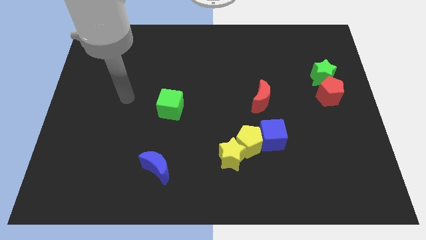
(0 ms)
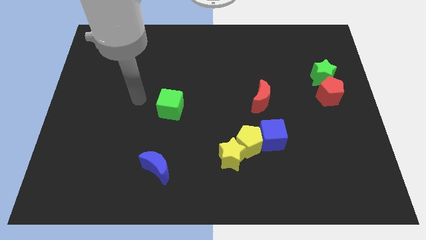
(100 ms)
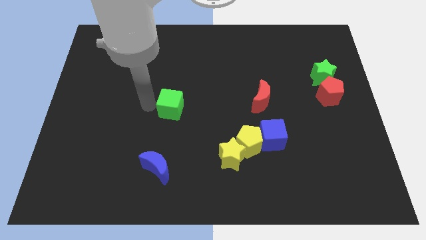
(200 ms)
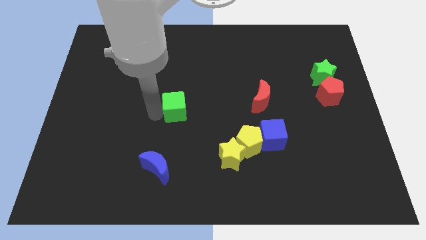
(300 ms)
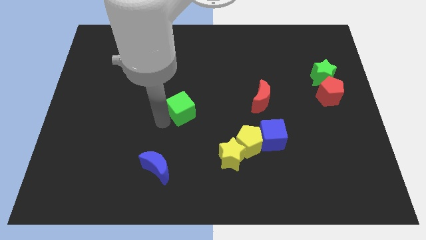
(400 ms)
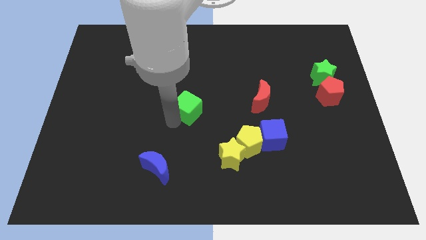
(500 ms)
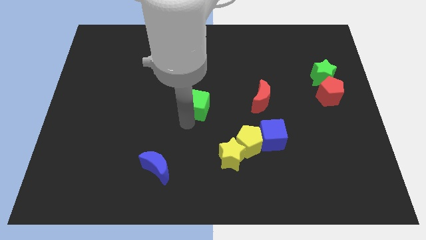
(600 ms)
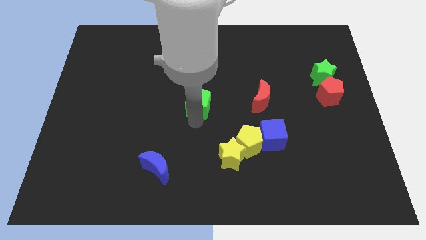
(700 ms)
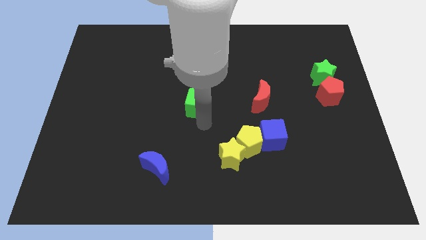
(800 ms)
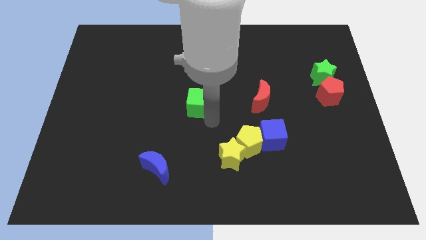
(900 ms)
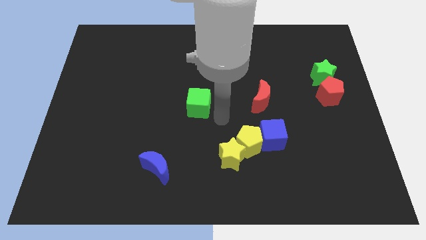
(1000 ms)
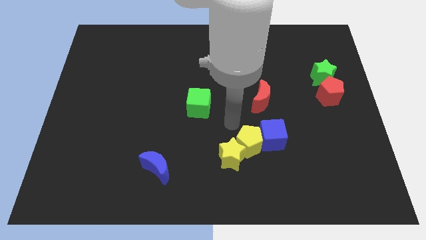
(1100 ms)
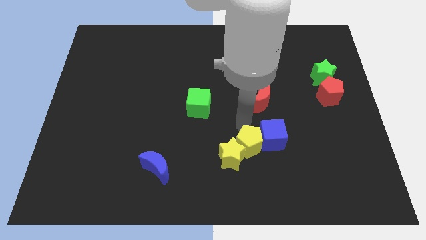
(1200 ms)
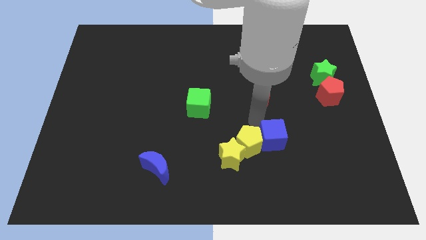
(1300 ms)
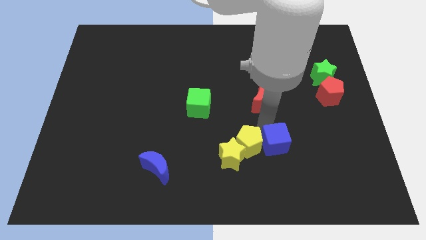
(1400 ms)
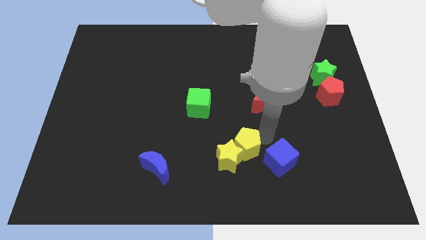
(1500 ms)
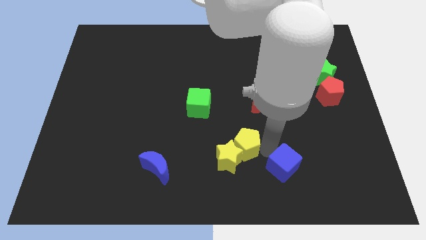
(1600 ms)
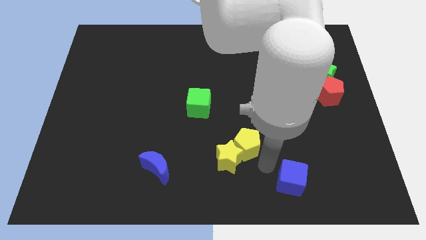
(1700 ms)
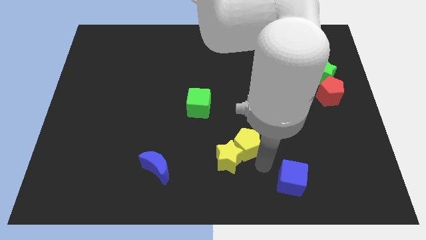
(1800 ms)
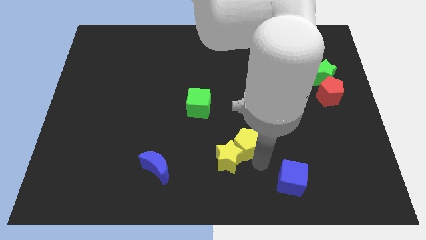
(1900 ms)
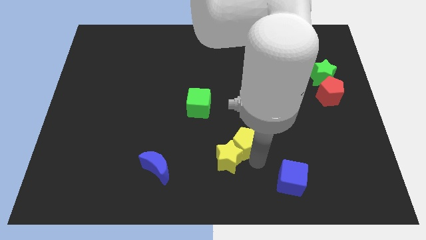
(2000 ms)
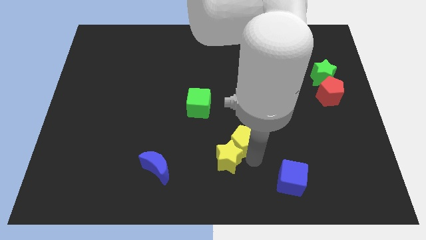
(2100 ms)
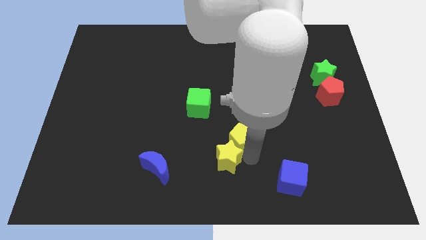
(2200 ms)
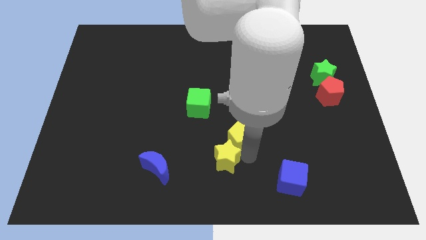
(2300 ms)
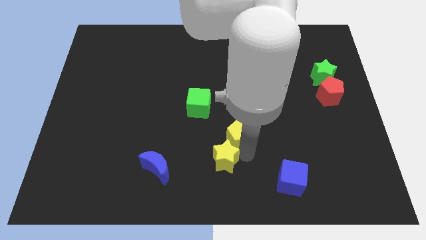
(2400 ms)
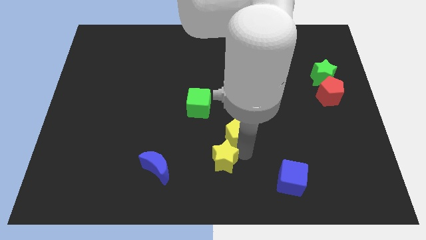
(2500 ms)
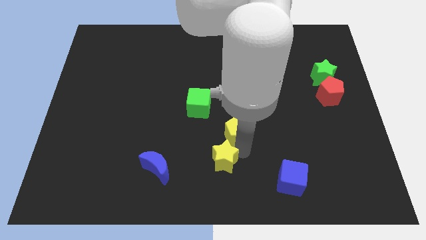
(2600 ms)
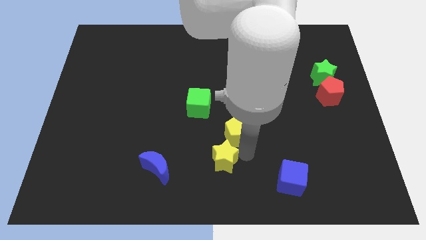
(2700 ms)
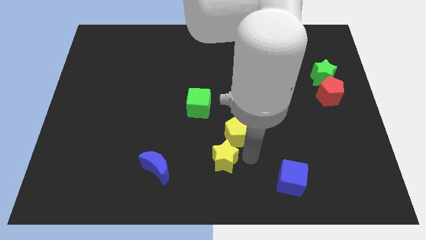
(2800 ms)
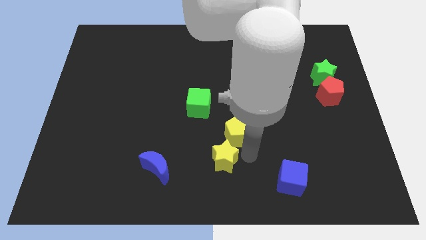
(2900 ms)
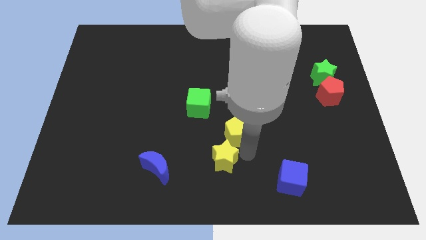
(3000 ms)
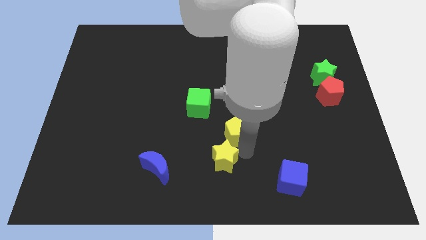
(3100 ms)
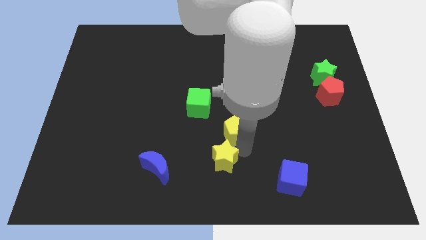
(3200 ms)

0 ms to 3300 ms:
move the yellow pentagon away from the yellow star and blue cube

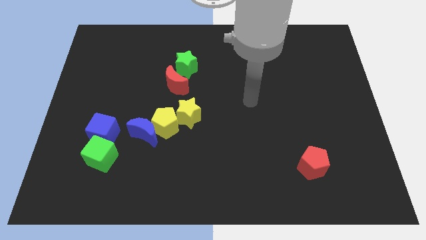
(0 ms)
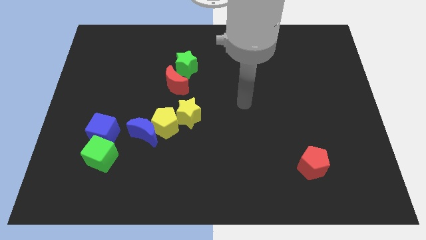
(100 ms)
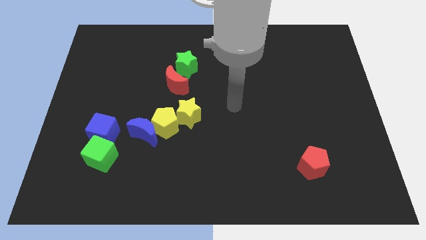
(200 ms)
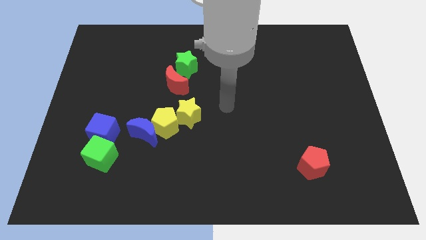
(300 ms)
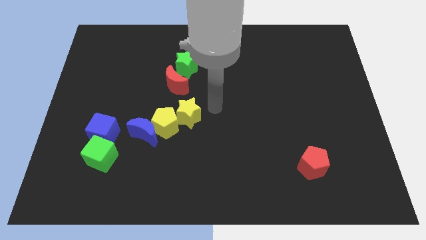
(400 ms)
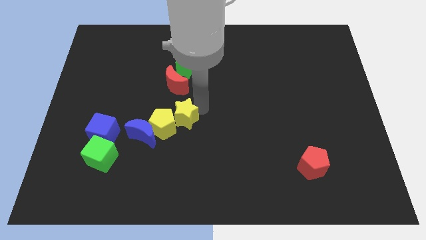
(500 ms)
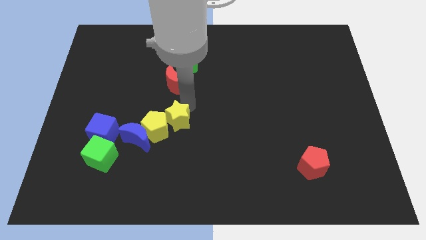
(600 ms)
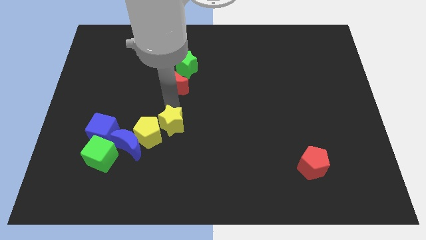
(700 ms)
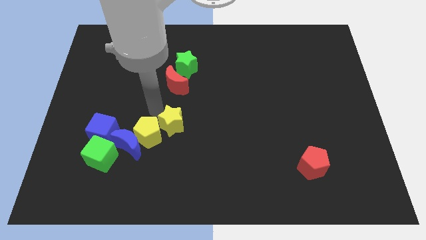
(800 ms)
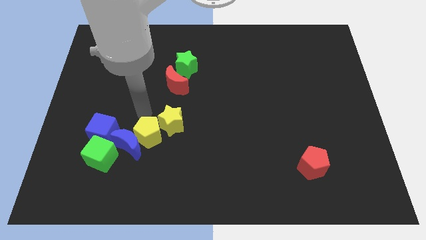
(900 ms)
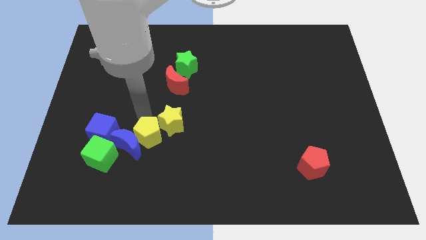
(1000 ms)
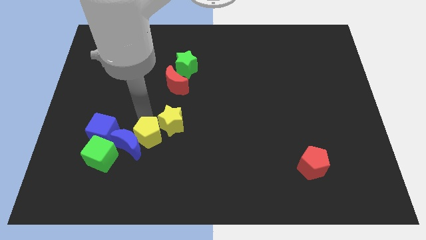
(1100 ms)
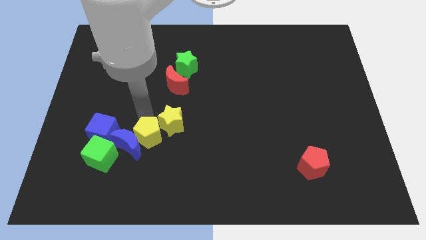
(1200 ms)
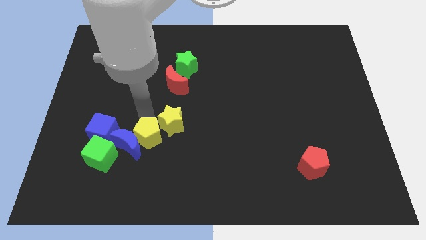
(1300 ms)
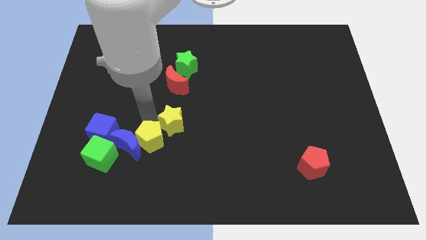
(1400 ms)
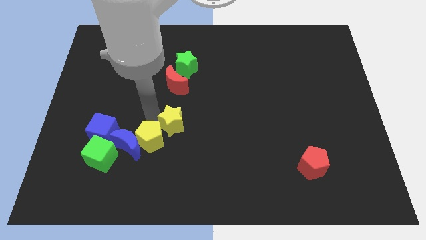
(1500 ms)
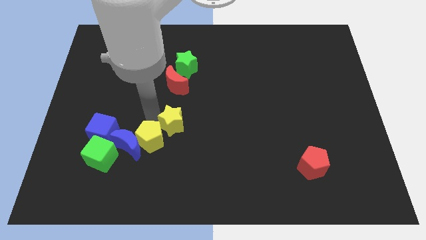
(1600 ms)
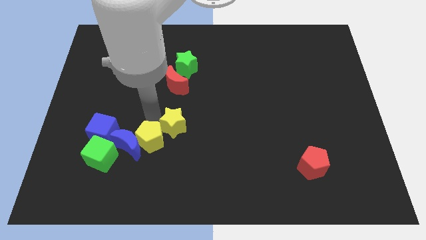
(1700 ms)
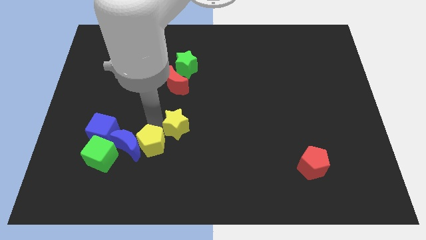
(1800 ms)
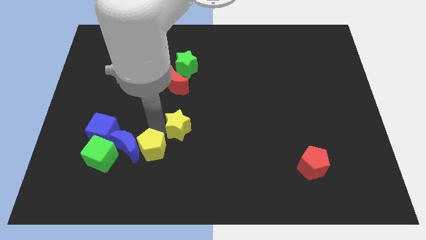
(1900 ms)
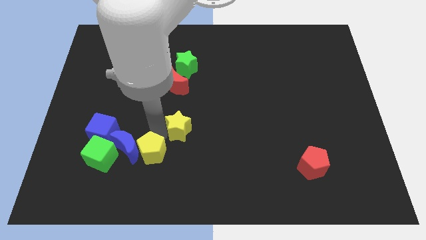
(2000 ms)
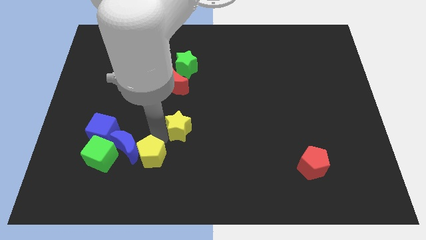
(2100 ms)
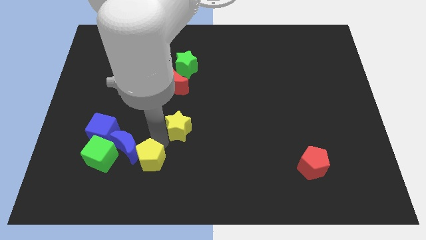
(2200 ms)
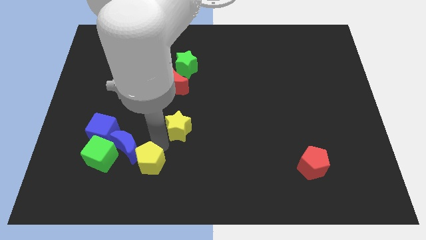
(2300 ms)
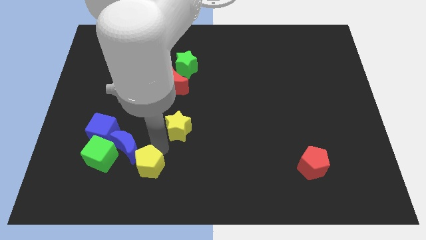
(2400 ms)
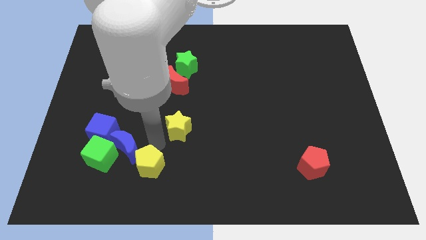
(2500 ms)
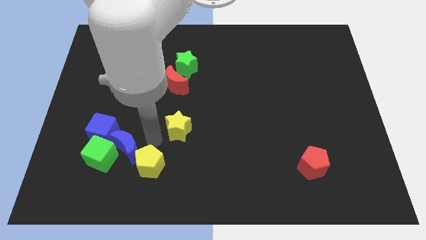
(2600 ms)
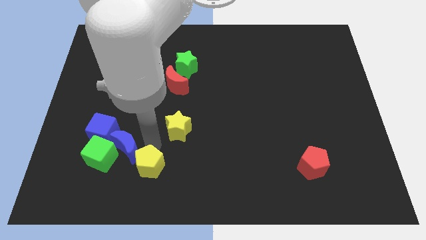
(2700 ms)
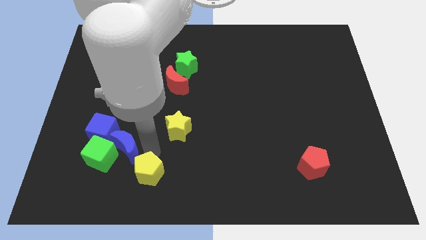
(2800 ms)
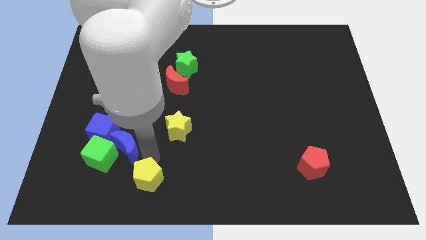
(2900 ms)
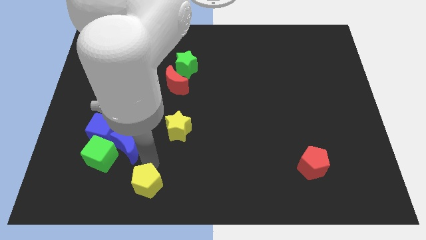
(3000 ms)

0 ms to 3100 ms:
pull the yellow pentagon apart from the blue moon and yellow star

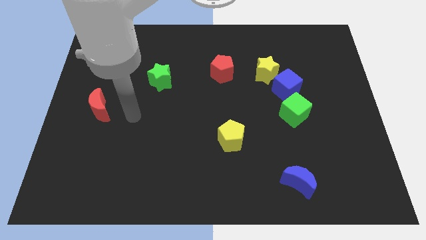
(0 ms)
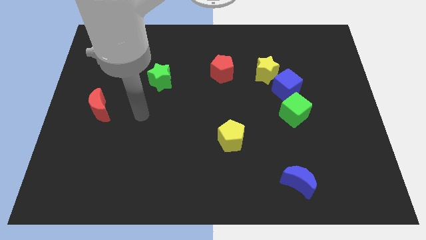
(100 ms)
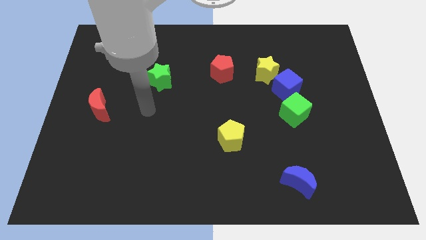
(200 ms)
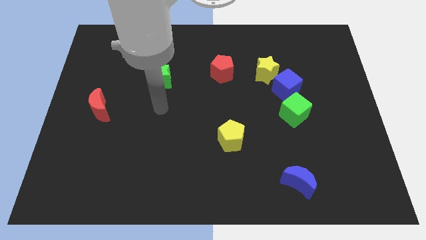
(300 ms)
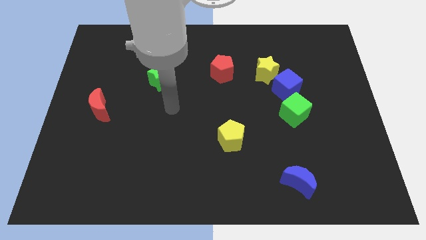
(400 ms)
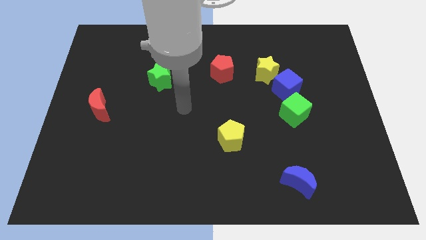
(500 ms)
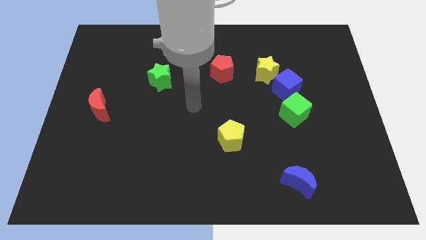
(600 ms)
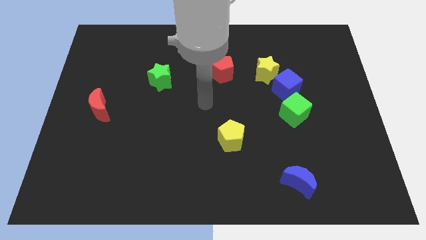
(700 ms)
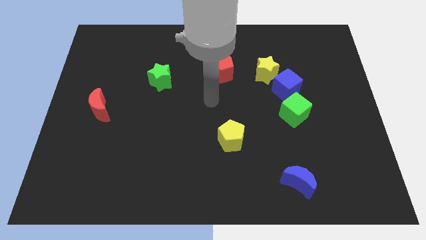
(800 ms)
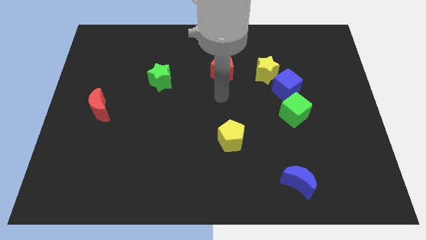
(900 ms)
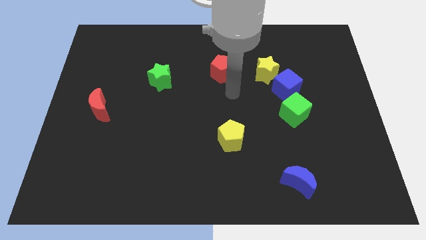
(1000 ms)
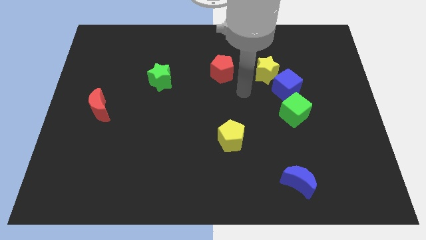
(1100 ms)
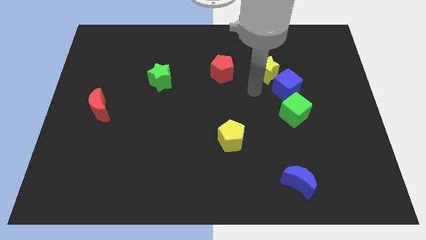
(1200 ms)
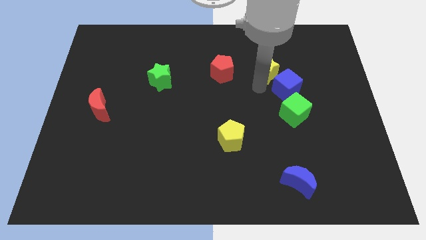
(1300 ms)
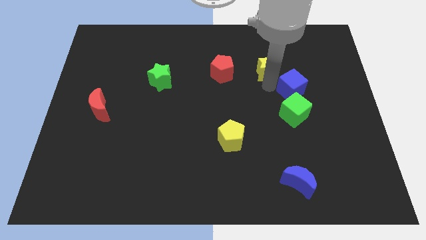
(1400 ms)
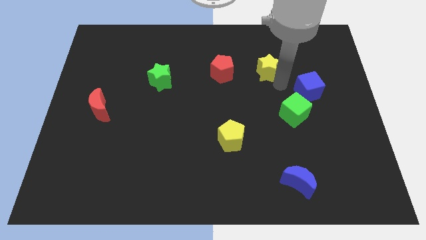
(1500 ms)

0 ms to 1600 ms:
separate the yellow star from the blue cube

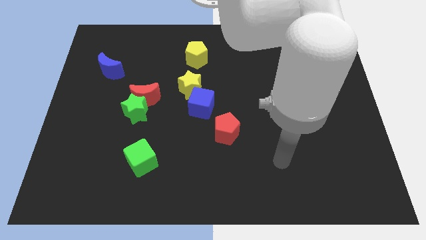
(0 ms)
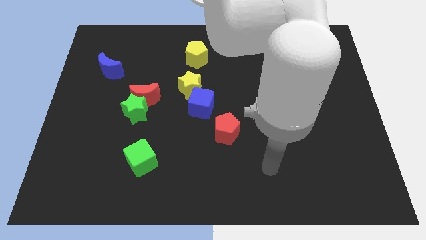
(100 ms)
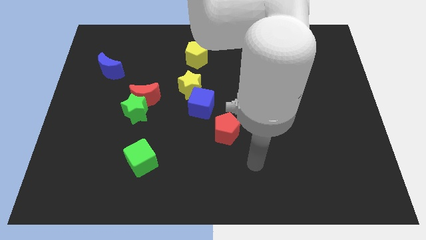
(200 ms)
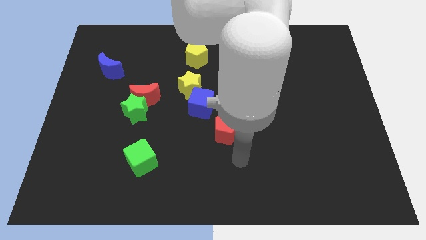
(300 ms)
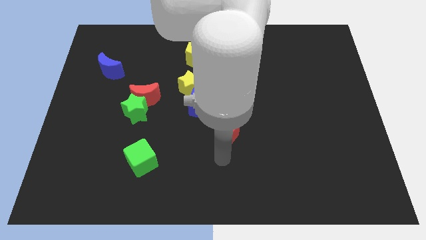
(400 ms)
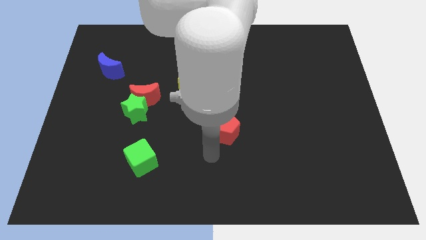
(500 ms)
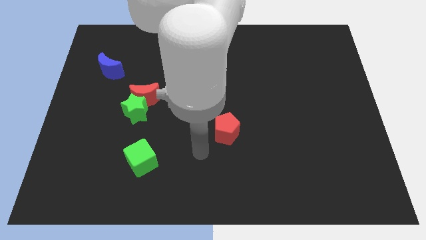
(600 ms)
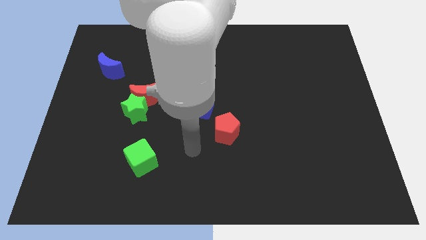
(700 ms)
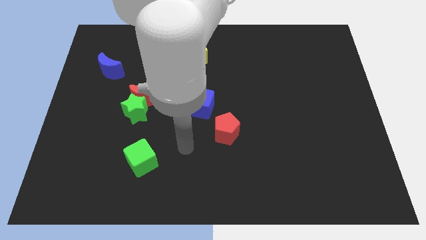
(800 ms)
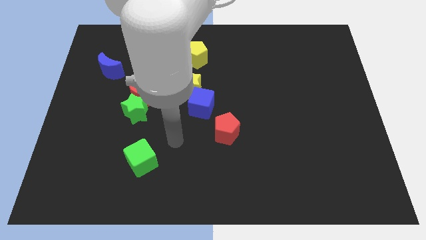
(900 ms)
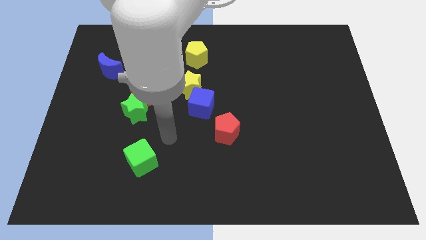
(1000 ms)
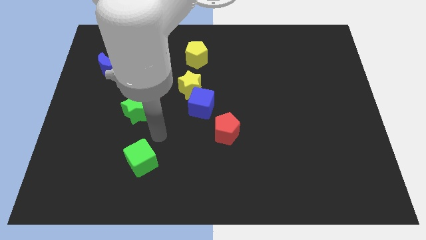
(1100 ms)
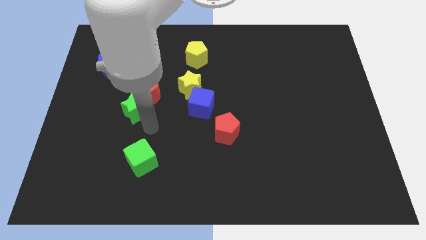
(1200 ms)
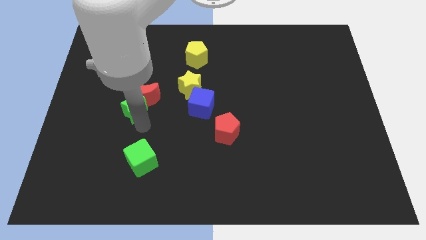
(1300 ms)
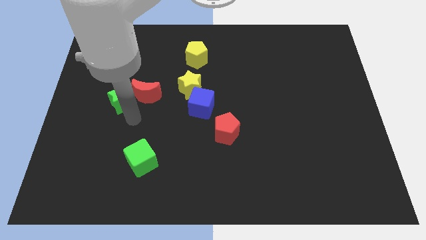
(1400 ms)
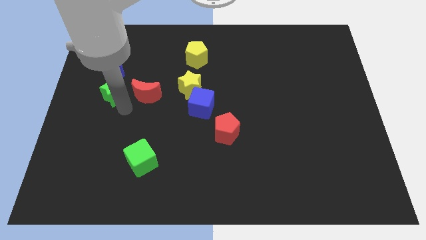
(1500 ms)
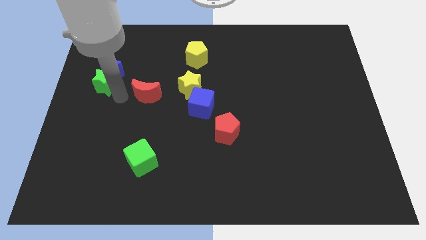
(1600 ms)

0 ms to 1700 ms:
pull the red moon apart from the green star
